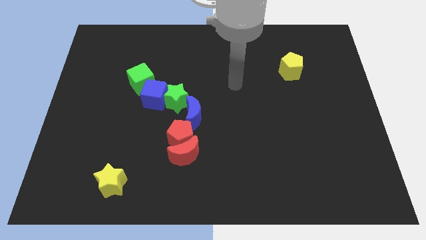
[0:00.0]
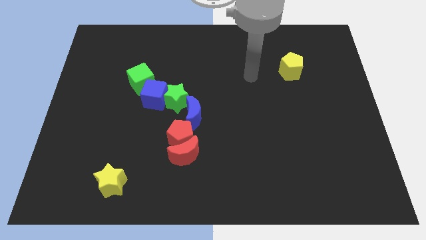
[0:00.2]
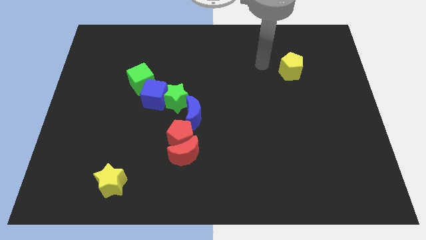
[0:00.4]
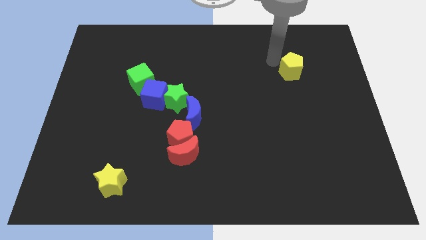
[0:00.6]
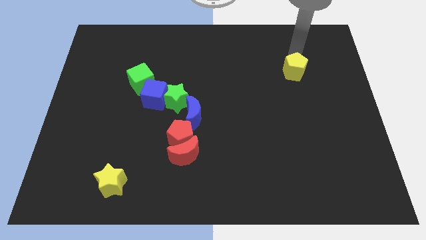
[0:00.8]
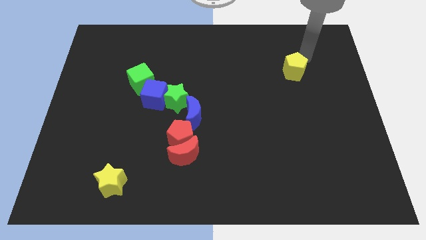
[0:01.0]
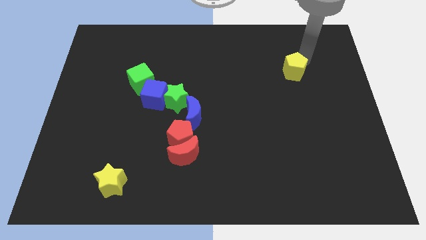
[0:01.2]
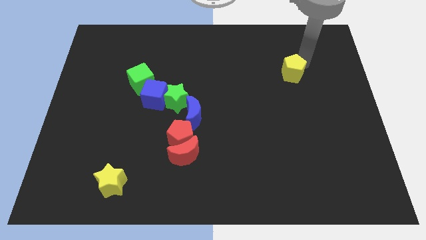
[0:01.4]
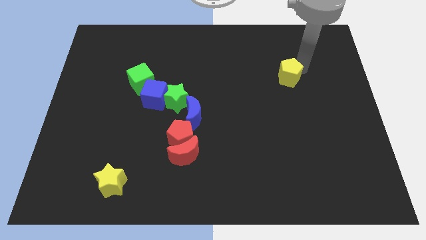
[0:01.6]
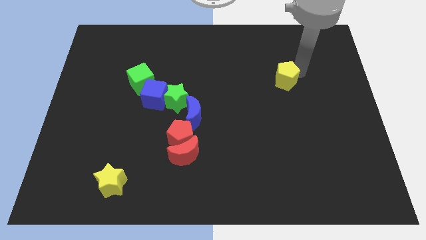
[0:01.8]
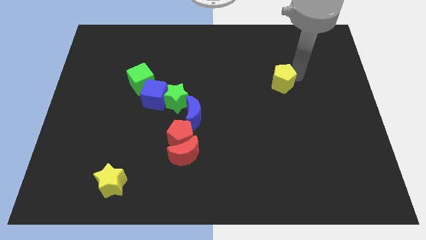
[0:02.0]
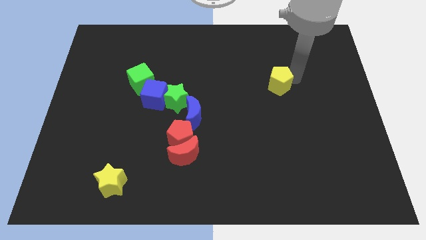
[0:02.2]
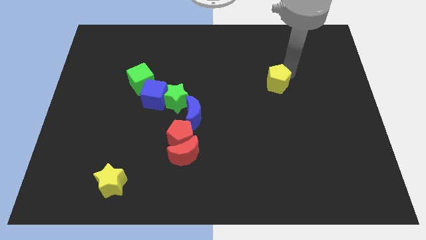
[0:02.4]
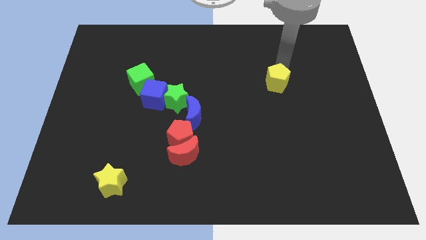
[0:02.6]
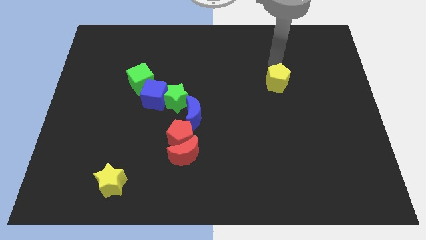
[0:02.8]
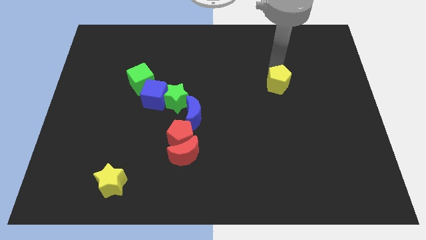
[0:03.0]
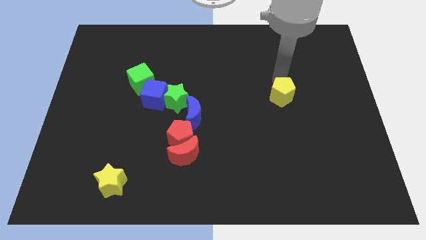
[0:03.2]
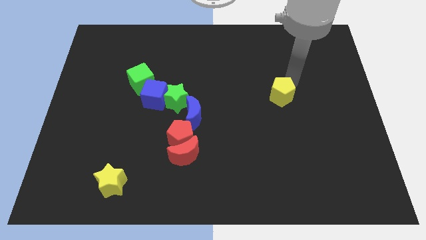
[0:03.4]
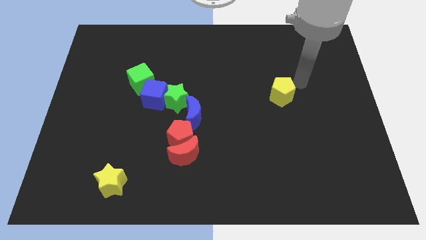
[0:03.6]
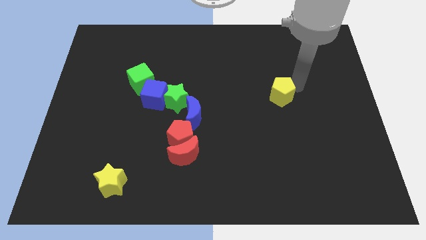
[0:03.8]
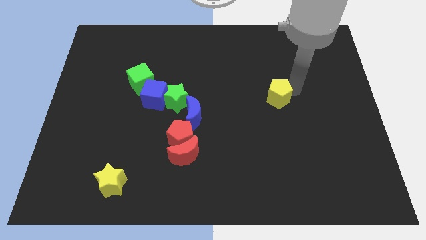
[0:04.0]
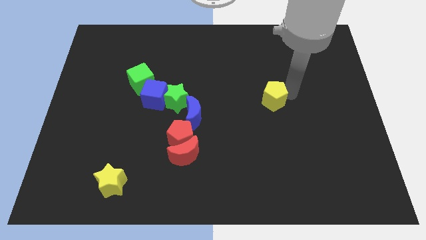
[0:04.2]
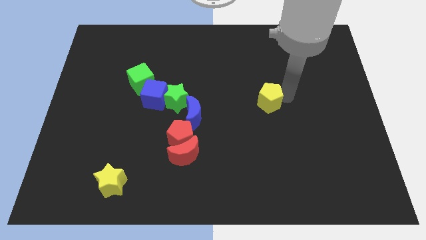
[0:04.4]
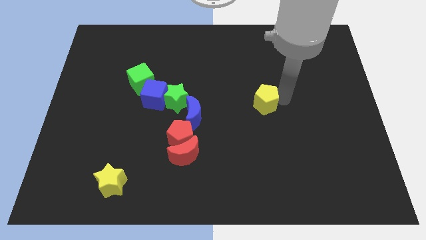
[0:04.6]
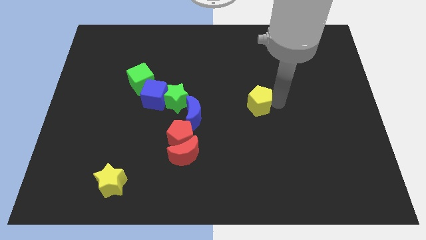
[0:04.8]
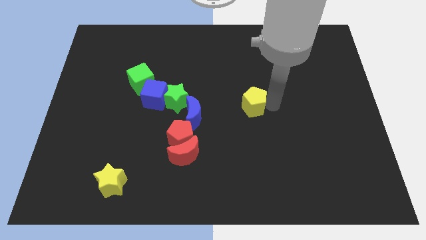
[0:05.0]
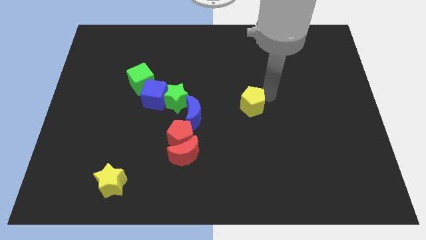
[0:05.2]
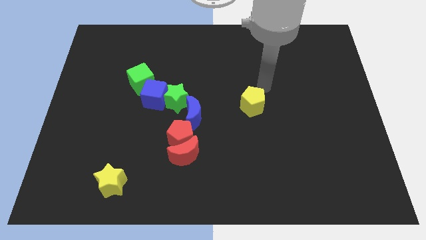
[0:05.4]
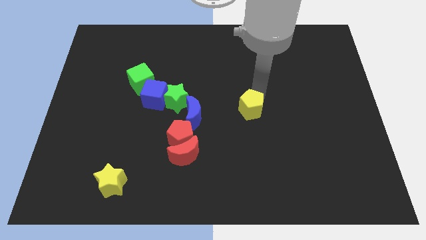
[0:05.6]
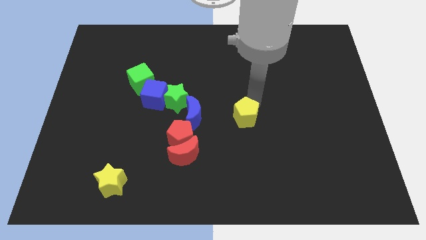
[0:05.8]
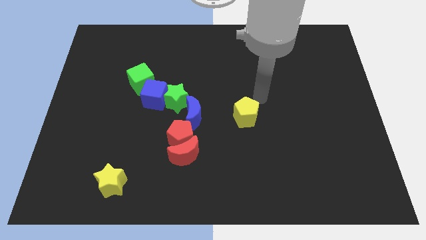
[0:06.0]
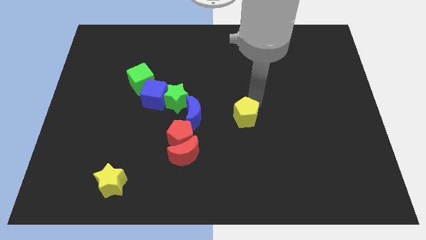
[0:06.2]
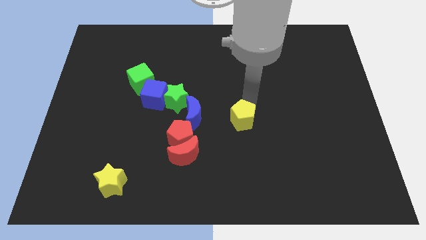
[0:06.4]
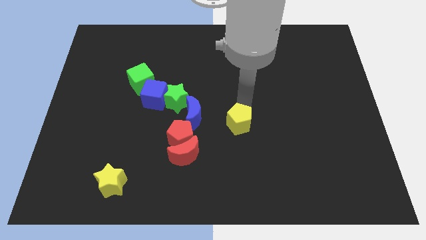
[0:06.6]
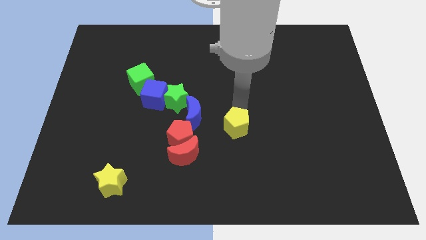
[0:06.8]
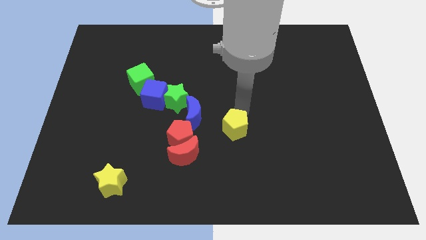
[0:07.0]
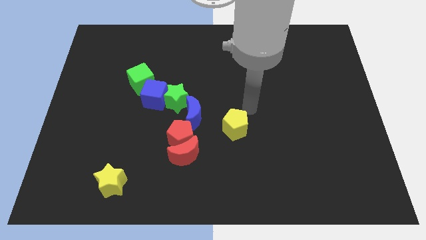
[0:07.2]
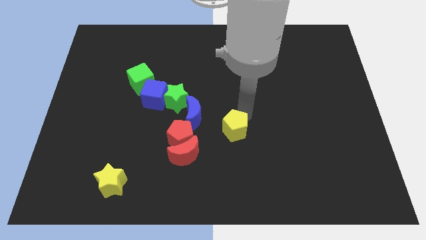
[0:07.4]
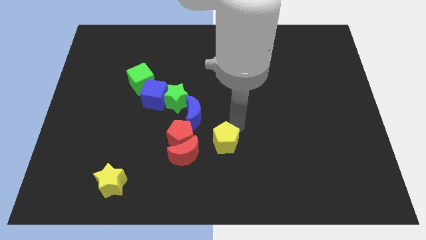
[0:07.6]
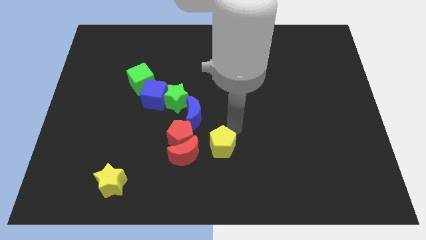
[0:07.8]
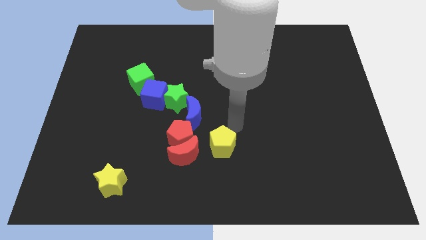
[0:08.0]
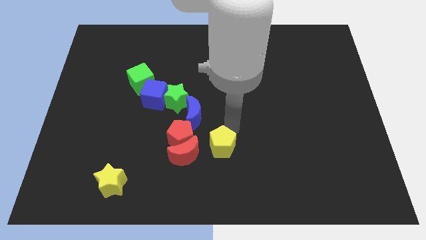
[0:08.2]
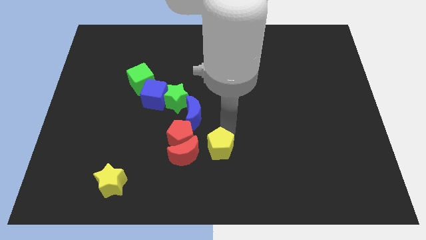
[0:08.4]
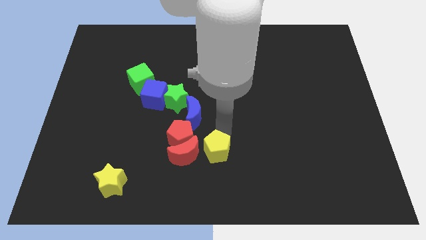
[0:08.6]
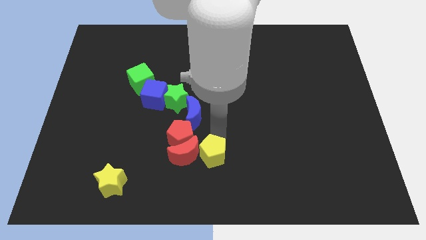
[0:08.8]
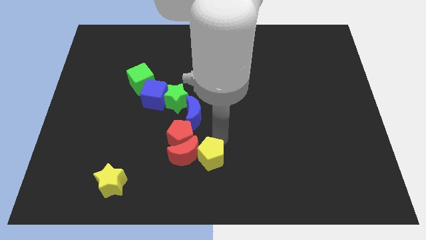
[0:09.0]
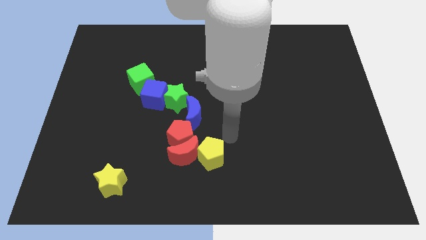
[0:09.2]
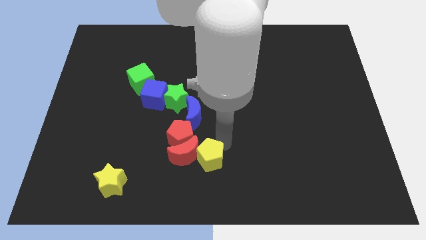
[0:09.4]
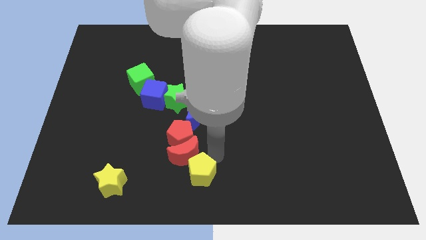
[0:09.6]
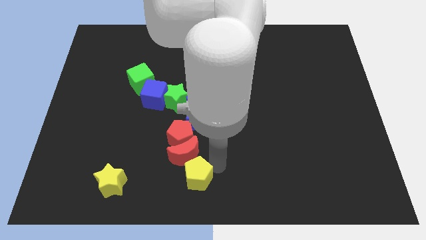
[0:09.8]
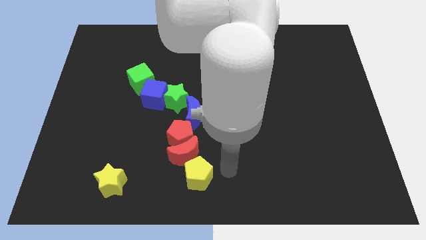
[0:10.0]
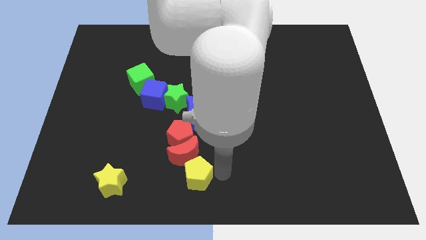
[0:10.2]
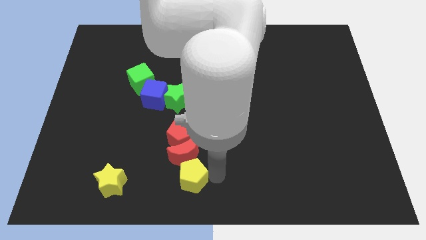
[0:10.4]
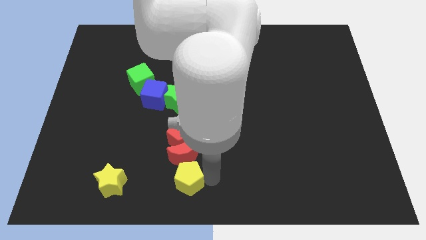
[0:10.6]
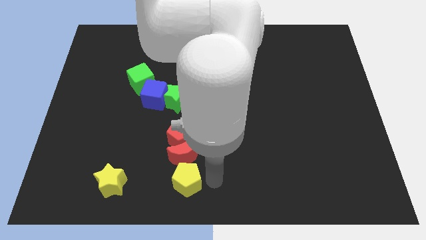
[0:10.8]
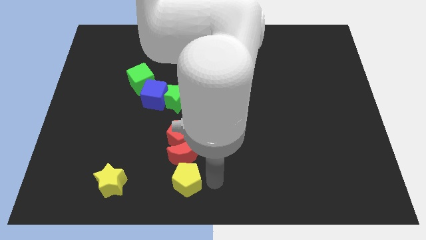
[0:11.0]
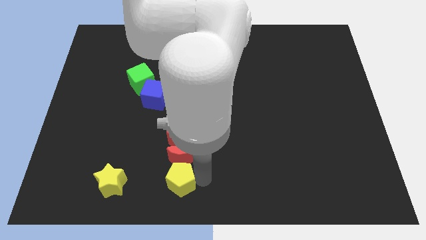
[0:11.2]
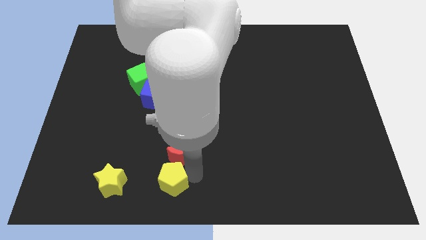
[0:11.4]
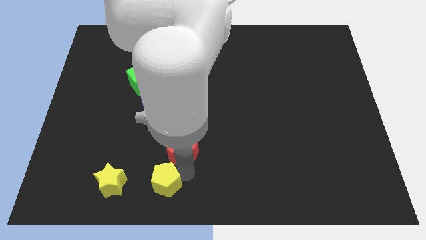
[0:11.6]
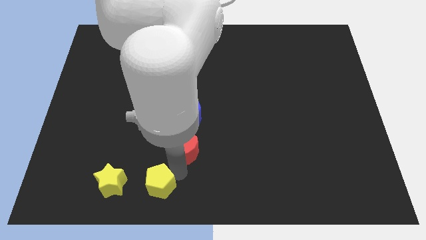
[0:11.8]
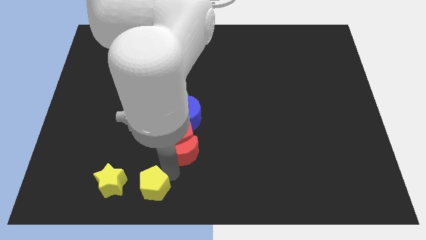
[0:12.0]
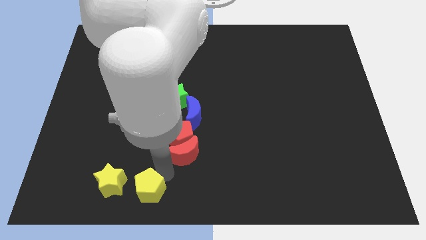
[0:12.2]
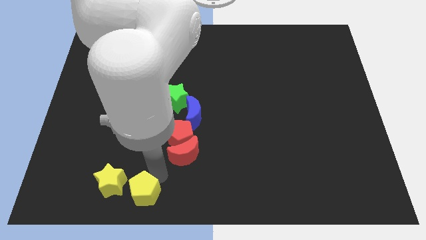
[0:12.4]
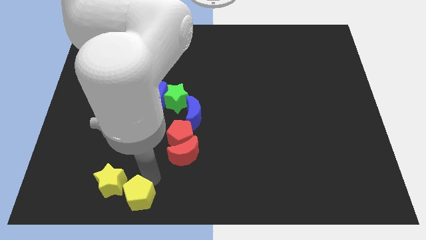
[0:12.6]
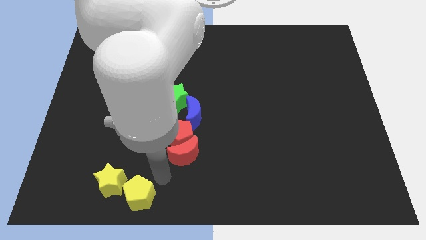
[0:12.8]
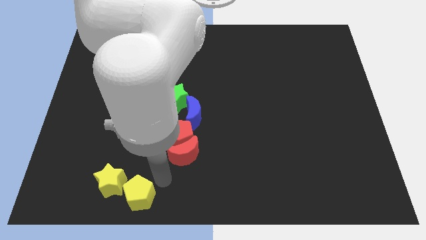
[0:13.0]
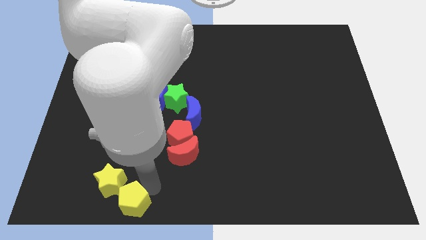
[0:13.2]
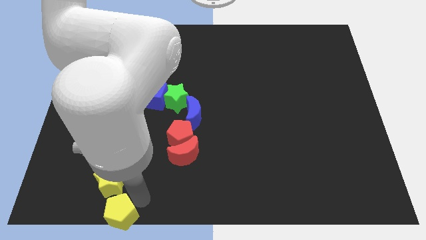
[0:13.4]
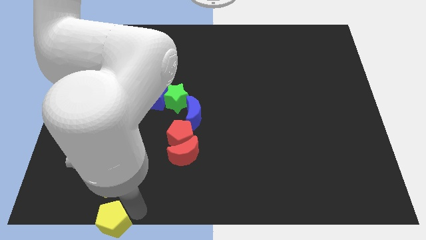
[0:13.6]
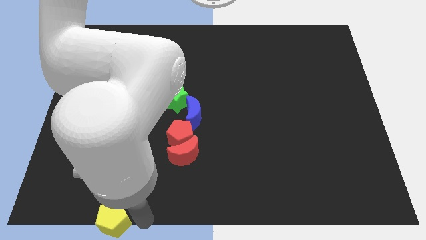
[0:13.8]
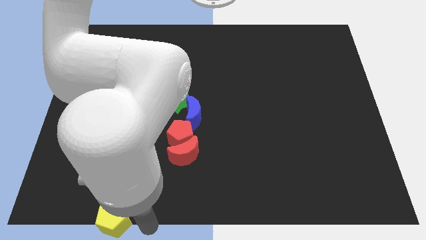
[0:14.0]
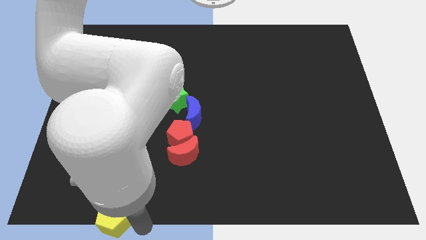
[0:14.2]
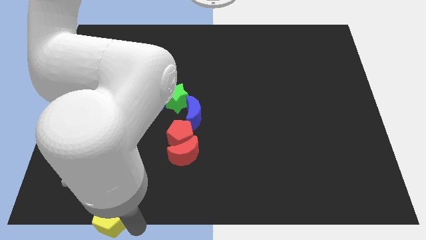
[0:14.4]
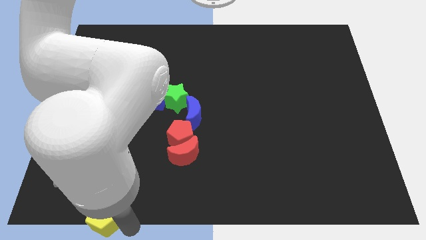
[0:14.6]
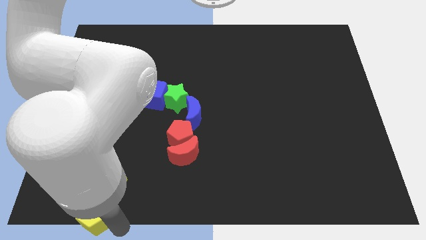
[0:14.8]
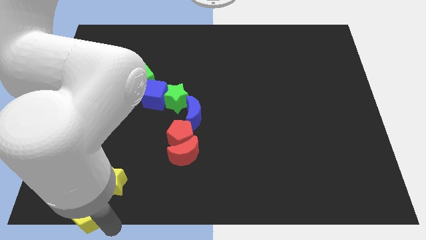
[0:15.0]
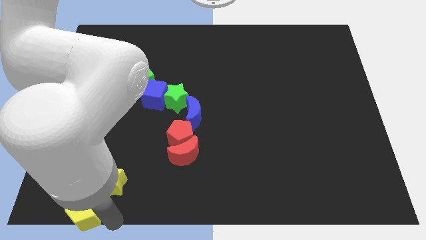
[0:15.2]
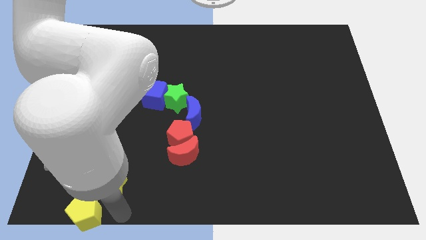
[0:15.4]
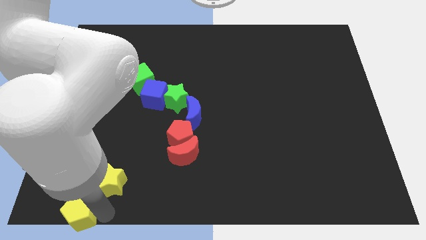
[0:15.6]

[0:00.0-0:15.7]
move the yellow pentagon to the bottom left of the board
